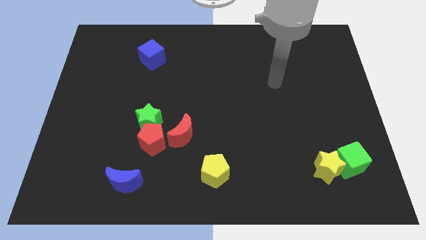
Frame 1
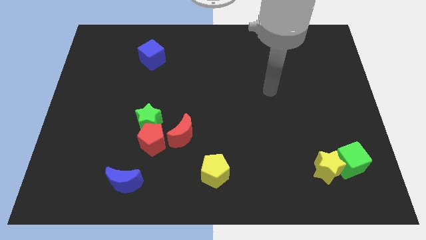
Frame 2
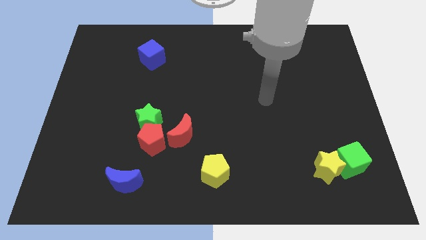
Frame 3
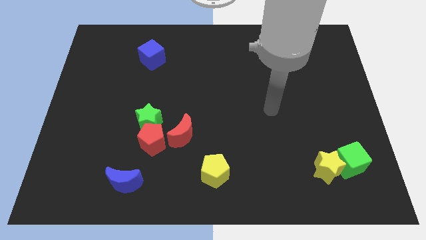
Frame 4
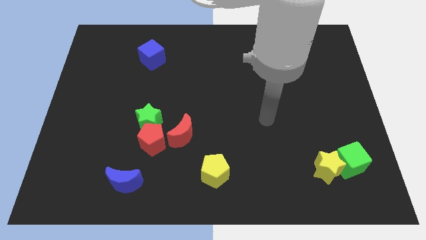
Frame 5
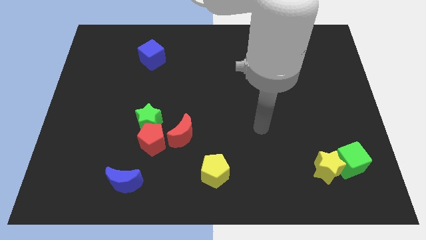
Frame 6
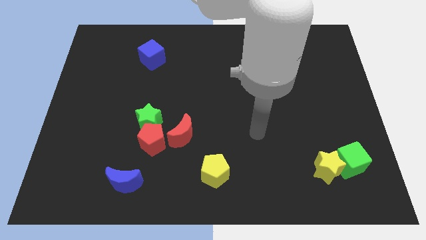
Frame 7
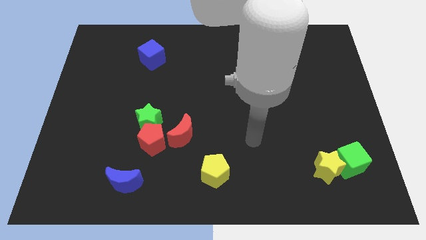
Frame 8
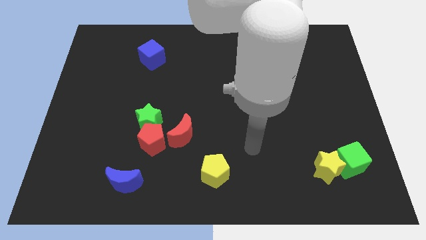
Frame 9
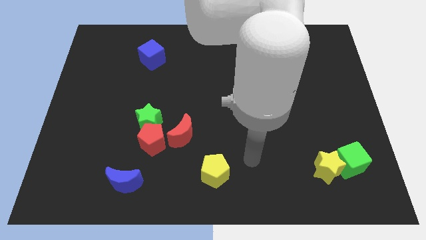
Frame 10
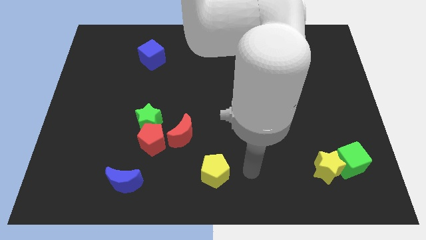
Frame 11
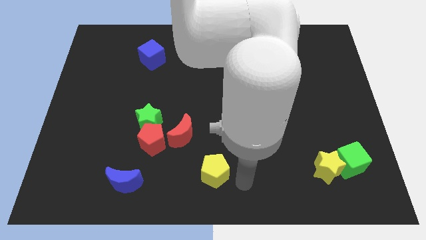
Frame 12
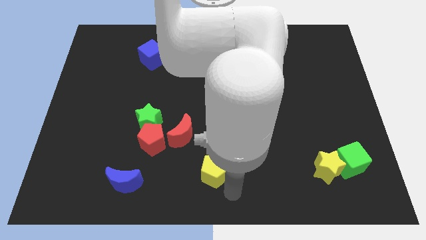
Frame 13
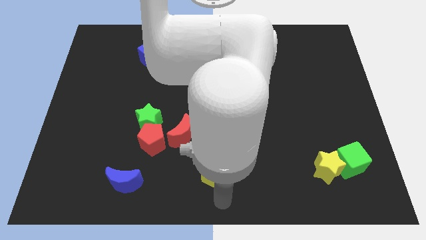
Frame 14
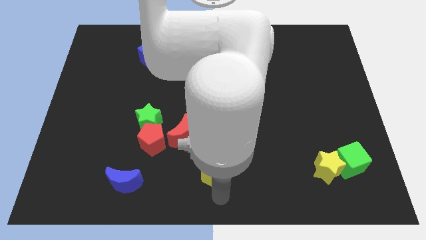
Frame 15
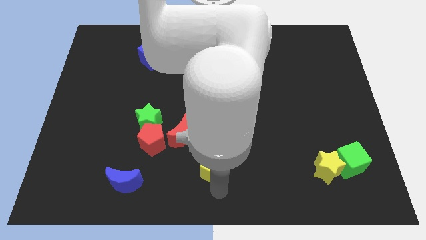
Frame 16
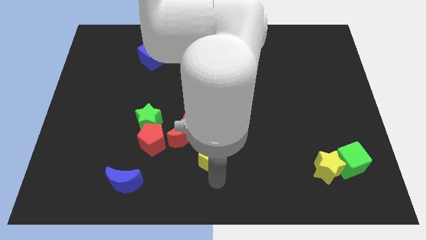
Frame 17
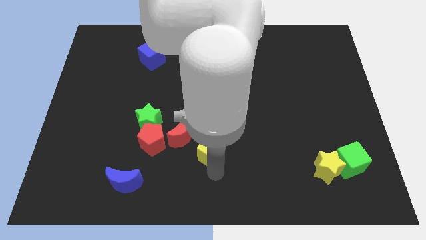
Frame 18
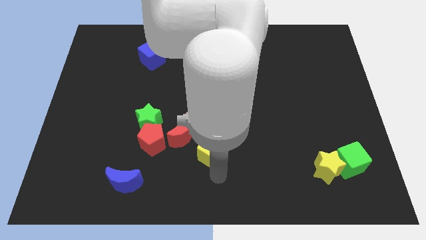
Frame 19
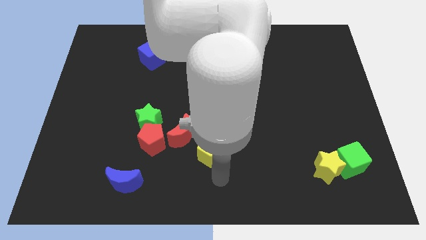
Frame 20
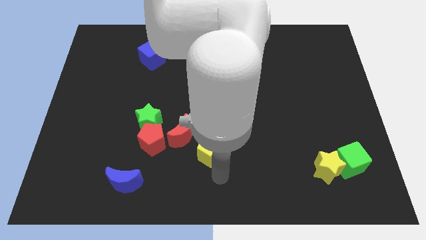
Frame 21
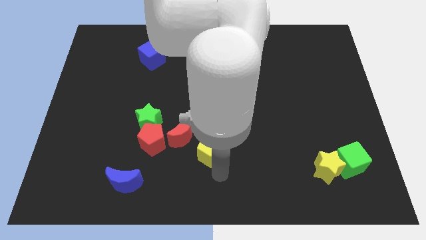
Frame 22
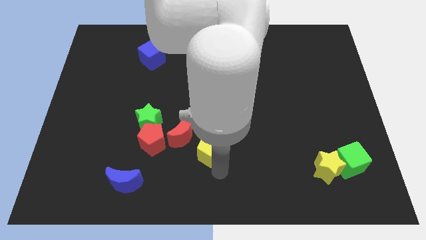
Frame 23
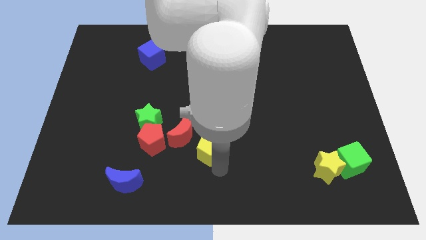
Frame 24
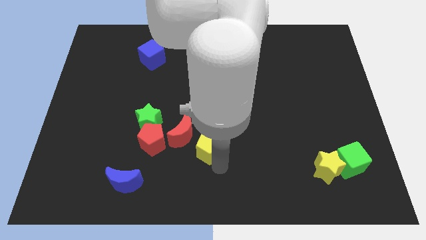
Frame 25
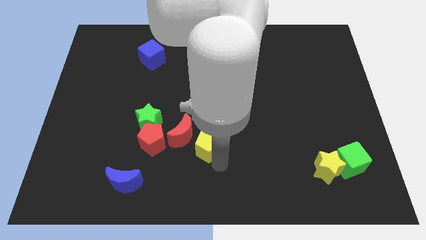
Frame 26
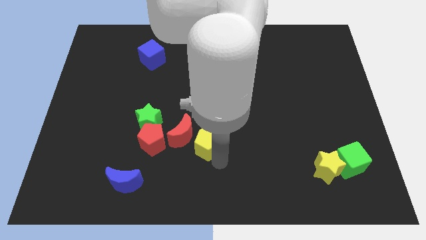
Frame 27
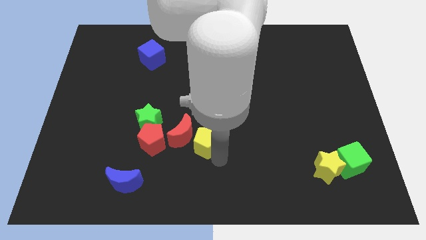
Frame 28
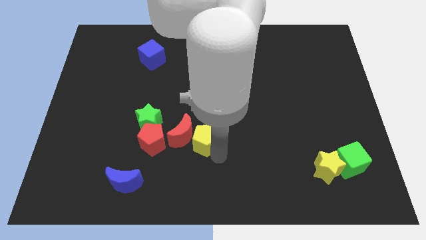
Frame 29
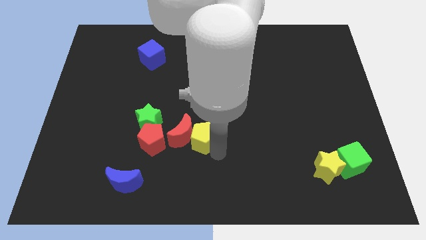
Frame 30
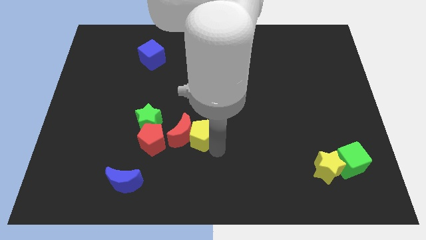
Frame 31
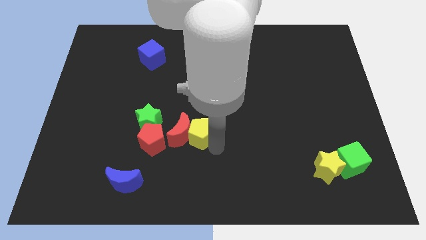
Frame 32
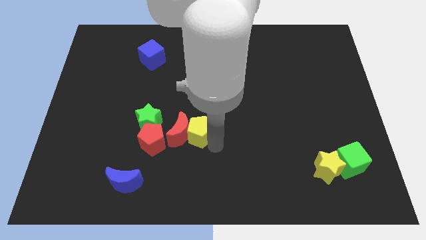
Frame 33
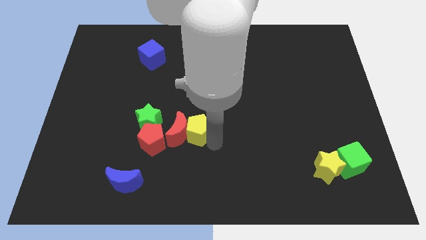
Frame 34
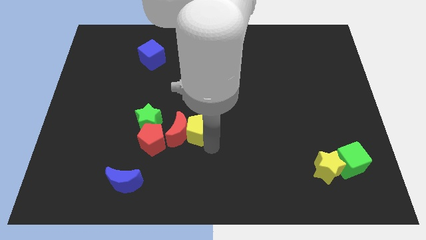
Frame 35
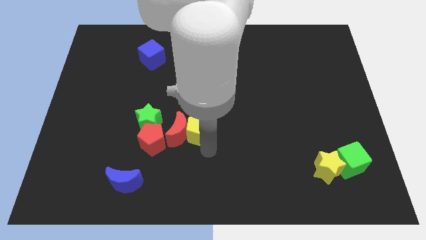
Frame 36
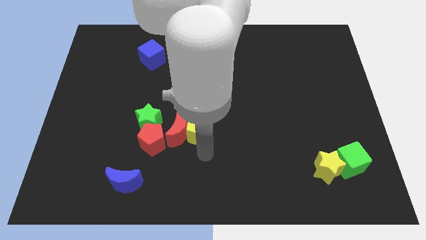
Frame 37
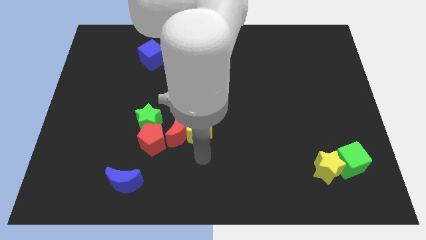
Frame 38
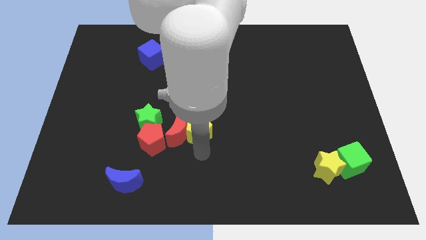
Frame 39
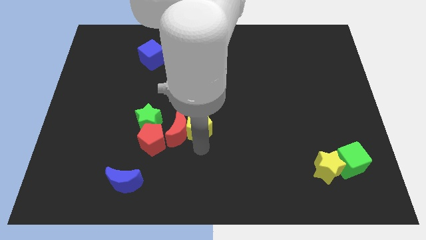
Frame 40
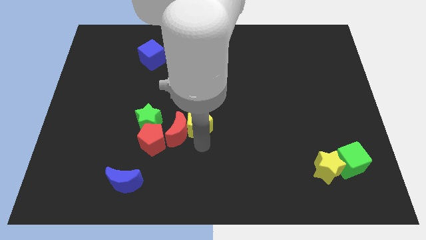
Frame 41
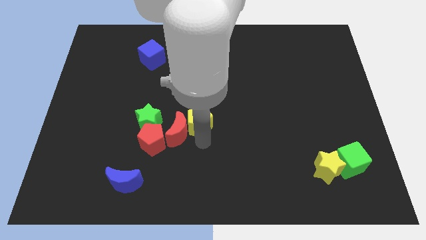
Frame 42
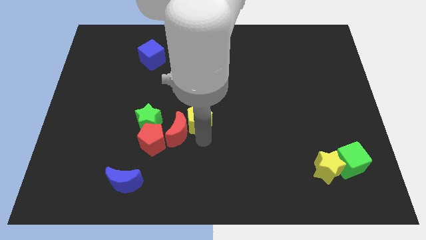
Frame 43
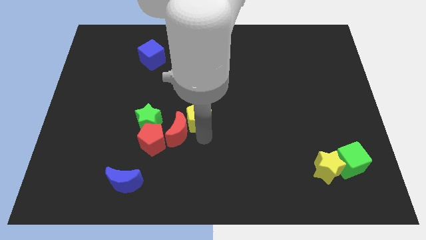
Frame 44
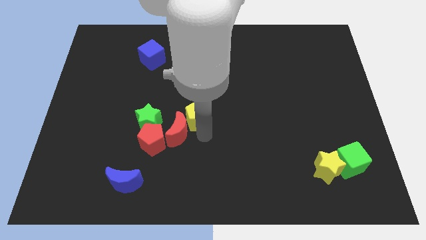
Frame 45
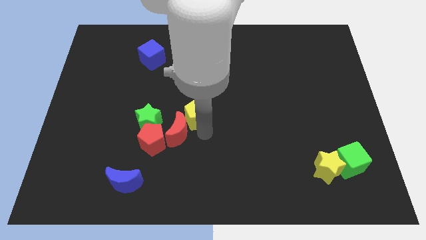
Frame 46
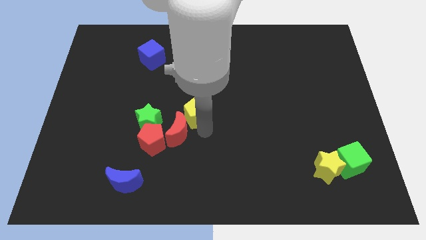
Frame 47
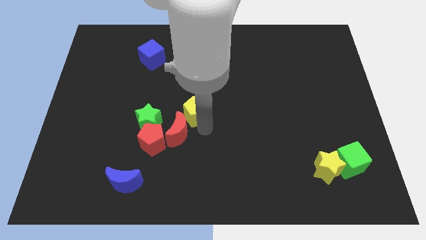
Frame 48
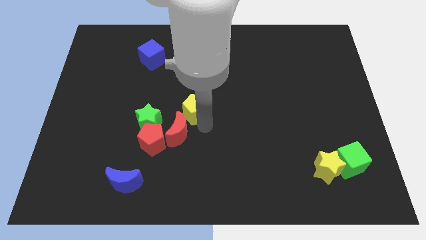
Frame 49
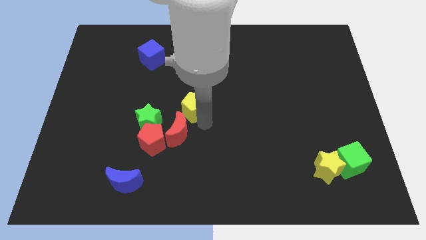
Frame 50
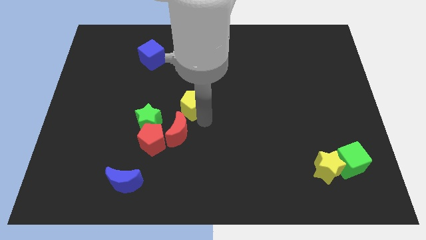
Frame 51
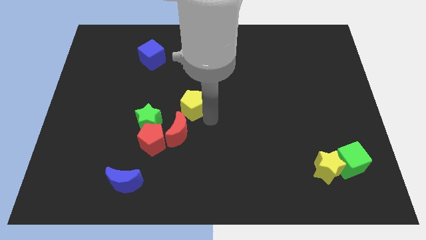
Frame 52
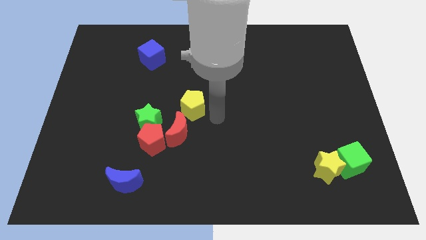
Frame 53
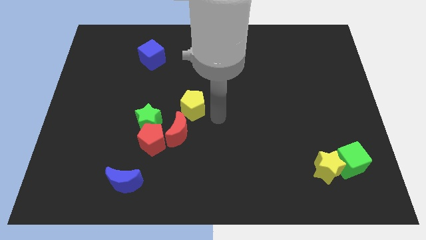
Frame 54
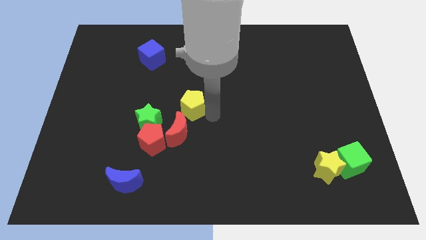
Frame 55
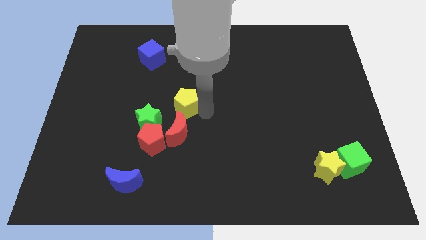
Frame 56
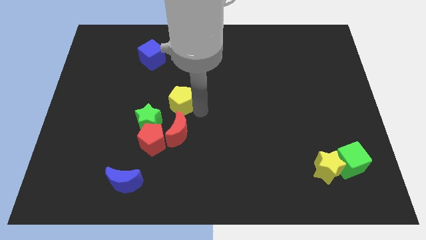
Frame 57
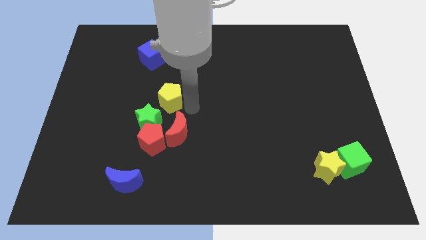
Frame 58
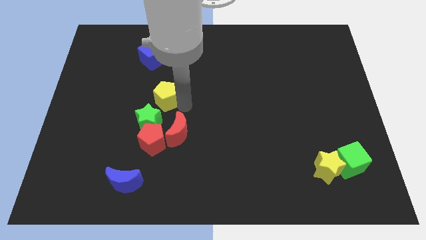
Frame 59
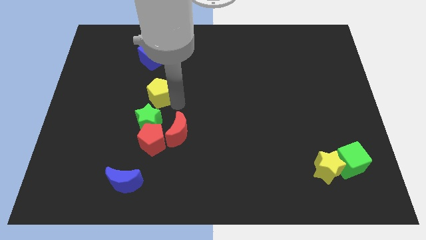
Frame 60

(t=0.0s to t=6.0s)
move the yellow pentagon below the blue cube

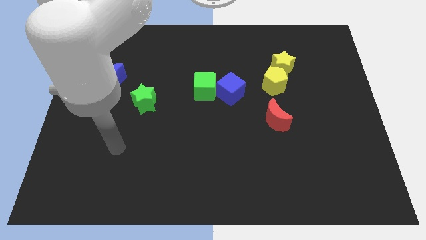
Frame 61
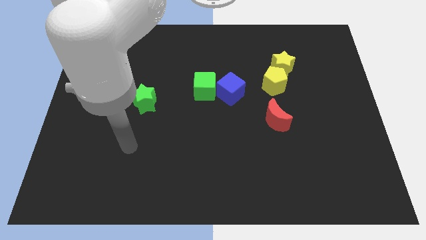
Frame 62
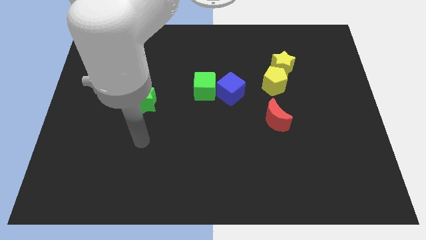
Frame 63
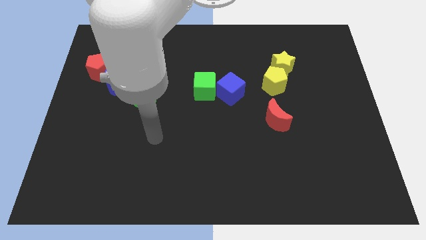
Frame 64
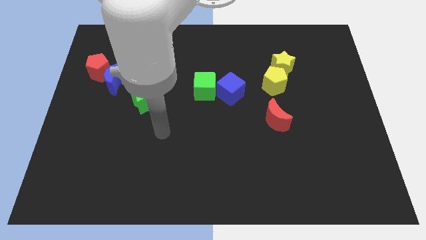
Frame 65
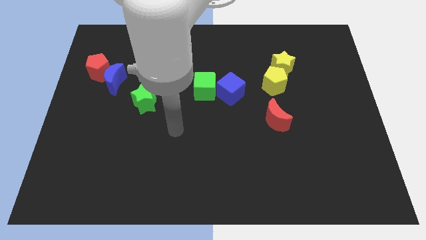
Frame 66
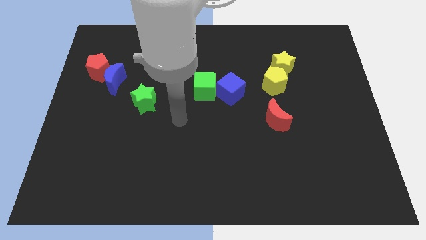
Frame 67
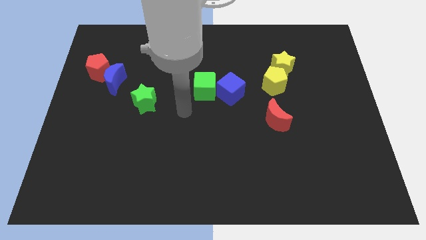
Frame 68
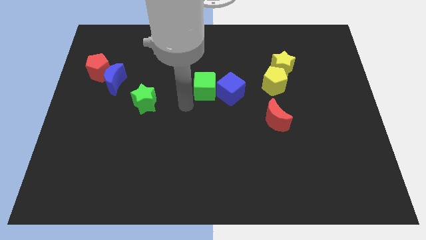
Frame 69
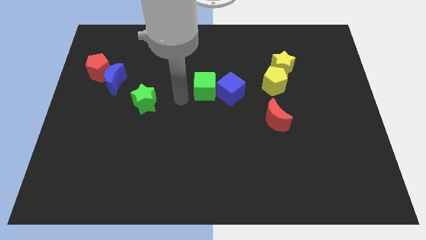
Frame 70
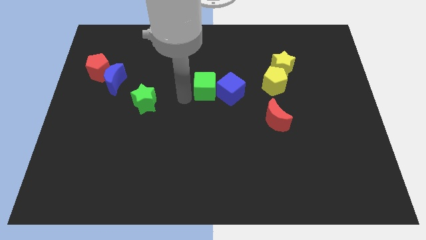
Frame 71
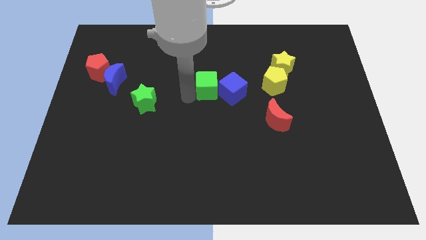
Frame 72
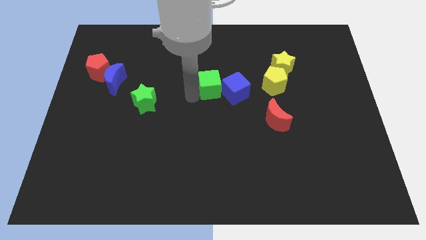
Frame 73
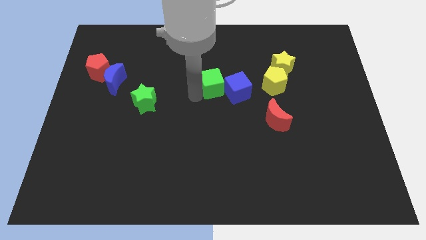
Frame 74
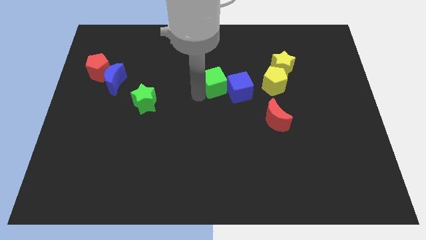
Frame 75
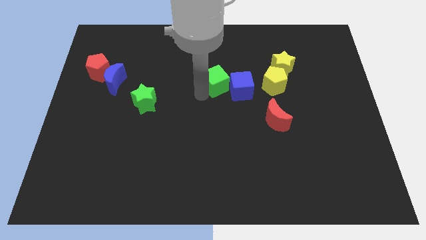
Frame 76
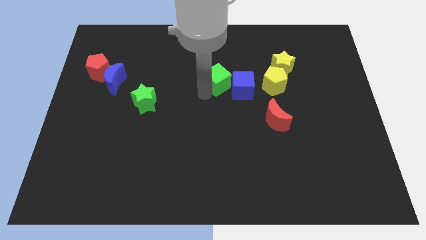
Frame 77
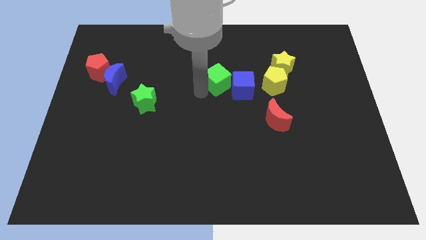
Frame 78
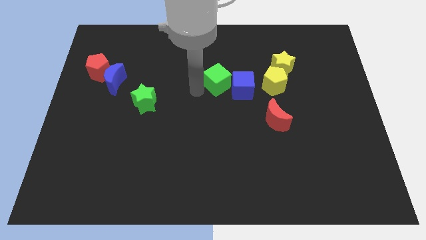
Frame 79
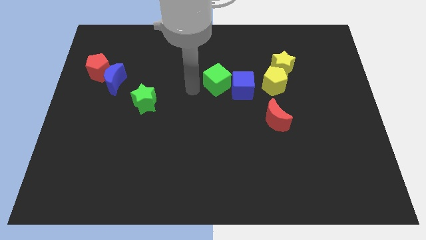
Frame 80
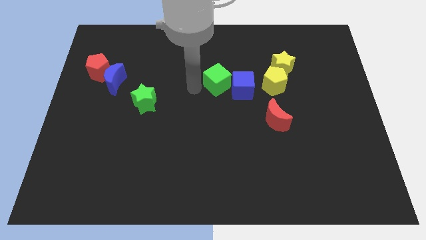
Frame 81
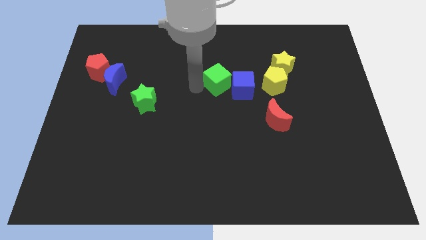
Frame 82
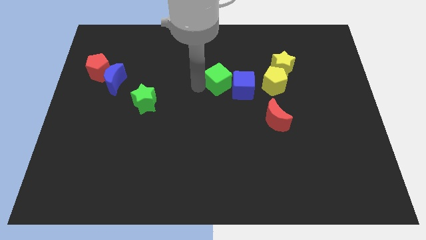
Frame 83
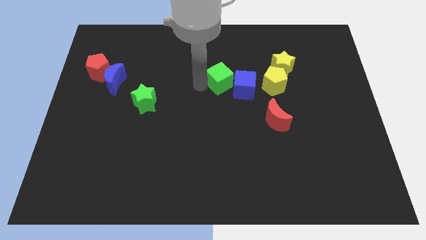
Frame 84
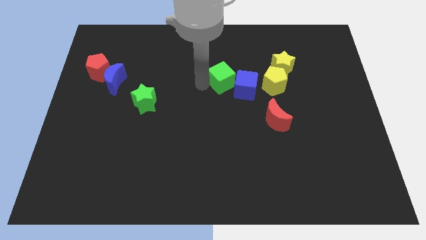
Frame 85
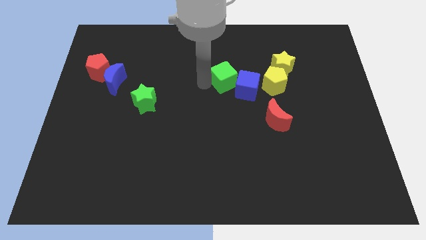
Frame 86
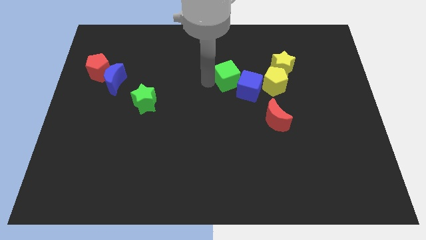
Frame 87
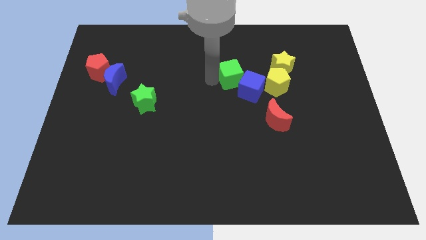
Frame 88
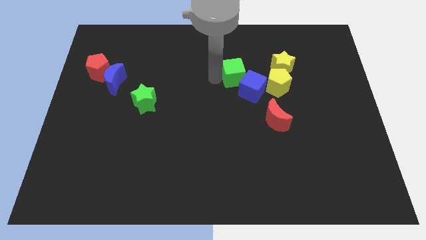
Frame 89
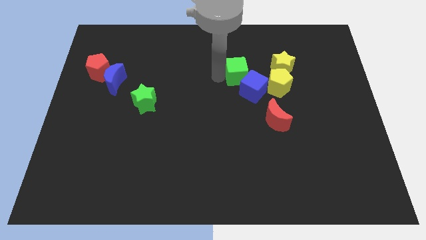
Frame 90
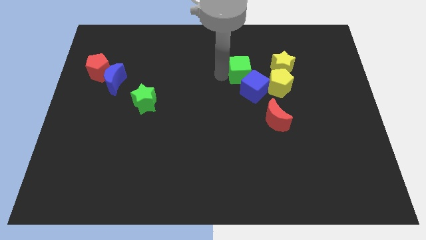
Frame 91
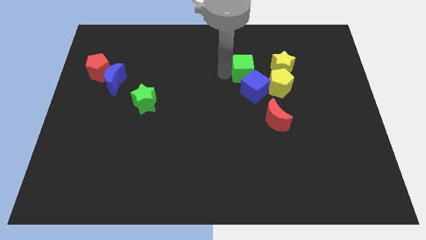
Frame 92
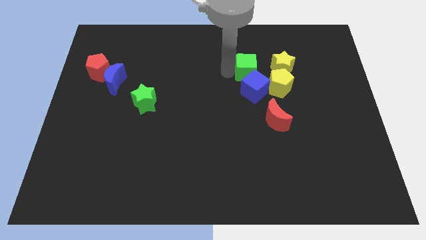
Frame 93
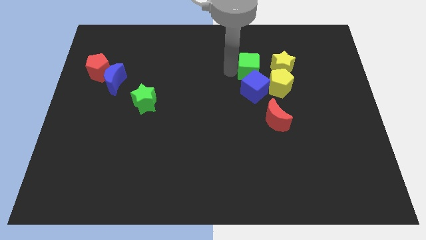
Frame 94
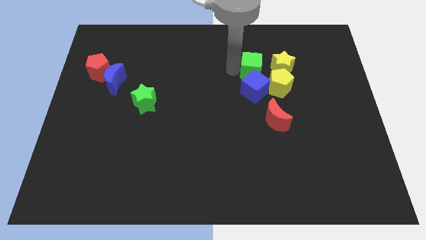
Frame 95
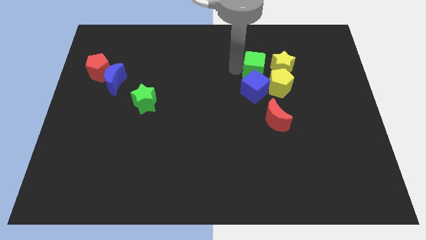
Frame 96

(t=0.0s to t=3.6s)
push the green cube diagonally up and to the right of the blue cube
